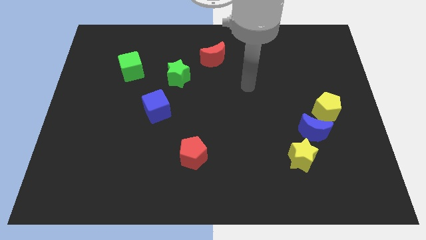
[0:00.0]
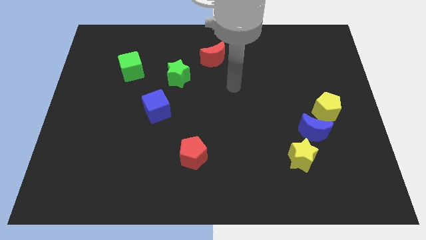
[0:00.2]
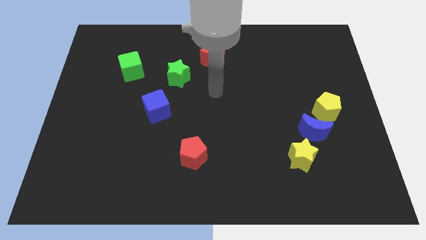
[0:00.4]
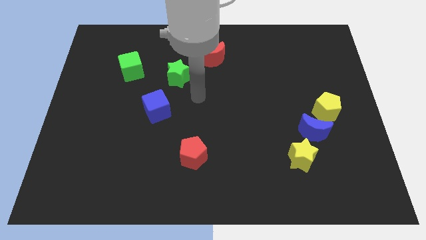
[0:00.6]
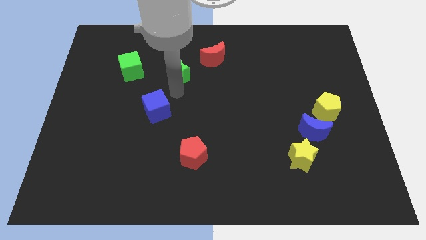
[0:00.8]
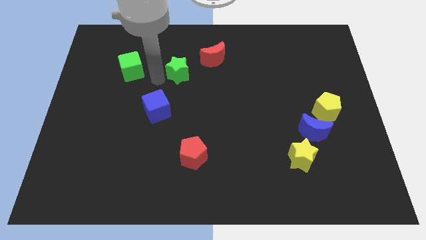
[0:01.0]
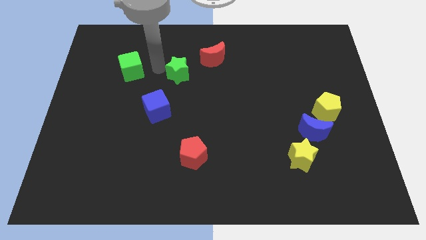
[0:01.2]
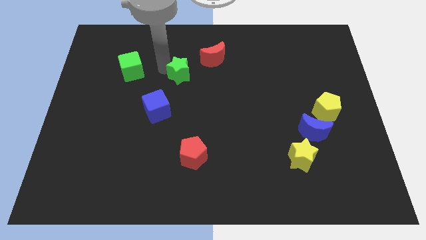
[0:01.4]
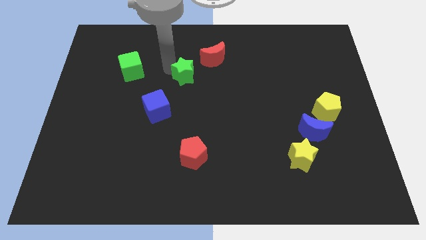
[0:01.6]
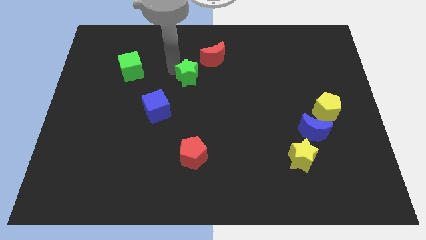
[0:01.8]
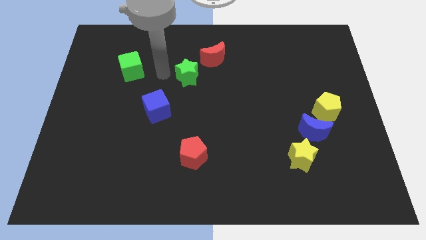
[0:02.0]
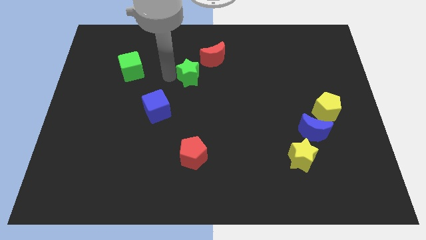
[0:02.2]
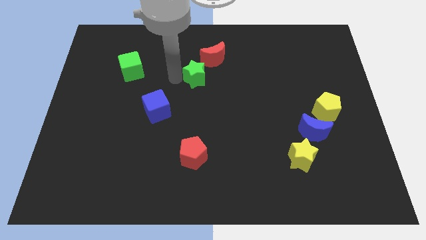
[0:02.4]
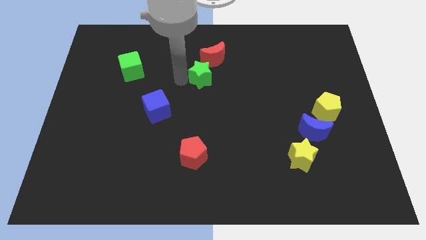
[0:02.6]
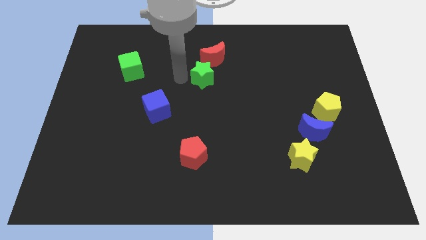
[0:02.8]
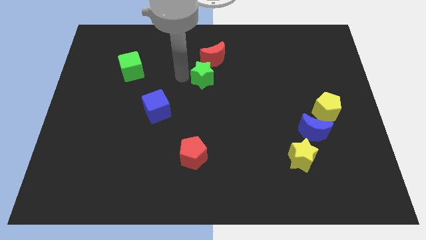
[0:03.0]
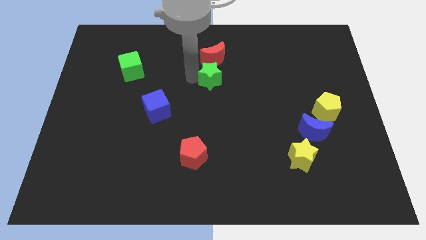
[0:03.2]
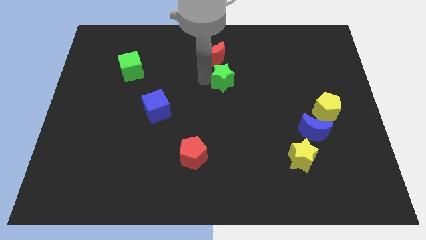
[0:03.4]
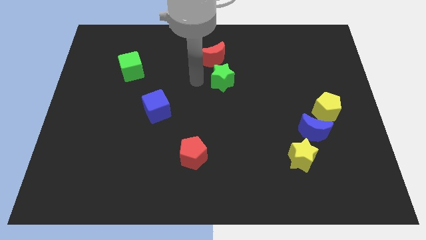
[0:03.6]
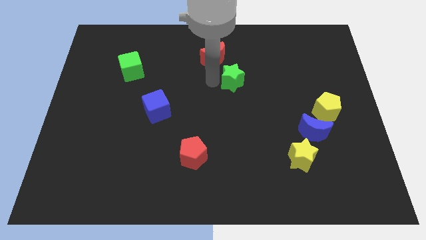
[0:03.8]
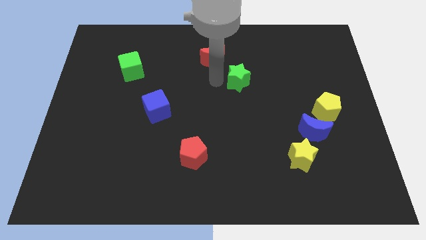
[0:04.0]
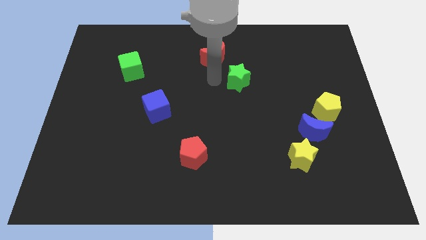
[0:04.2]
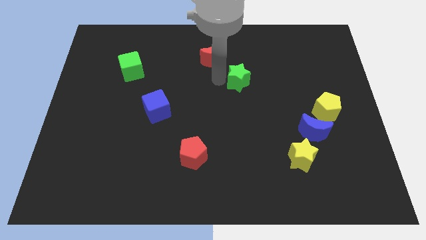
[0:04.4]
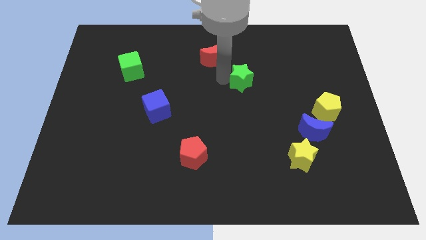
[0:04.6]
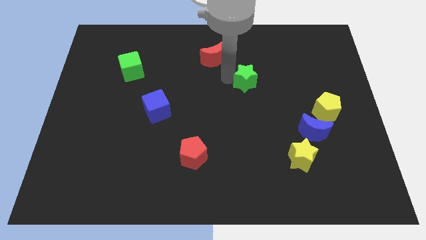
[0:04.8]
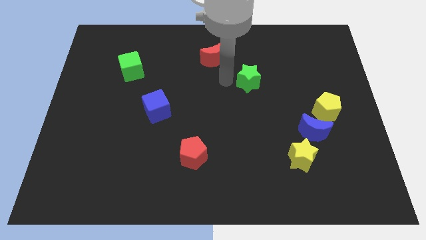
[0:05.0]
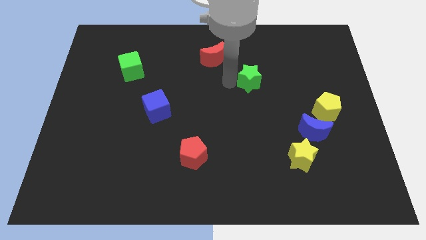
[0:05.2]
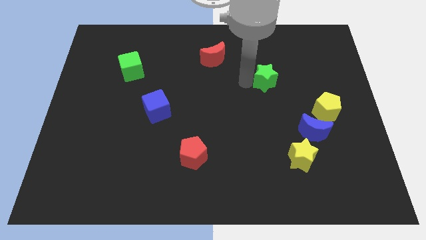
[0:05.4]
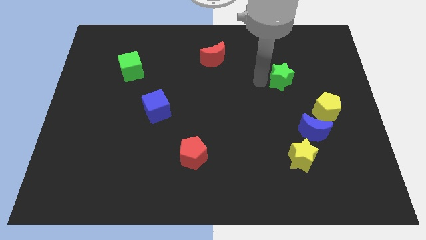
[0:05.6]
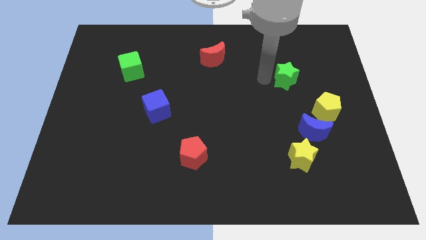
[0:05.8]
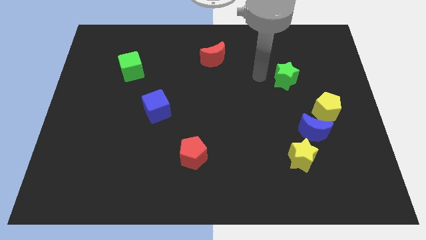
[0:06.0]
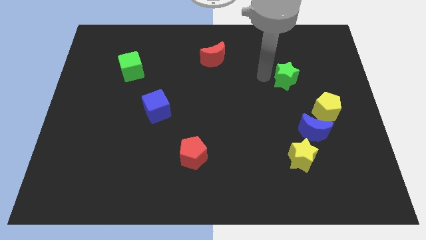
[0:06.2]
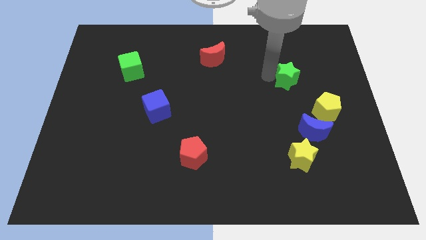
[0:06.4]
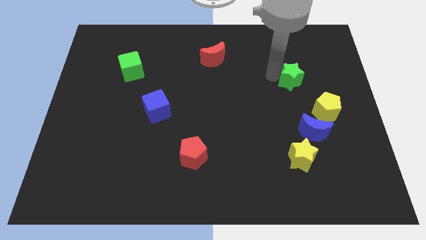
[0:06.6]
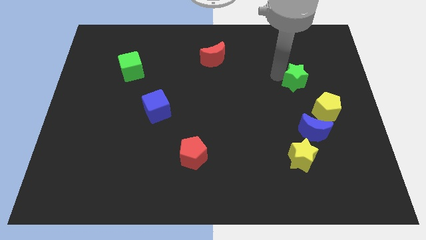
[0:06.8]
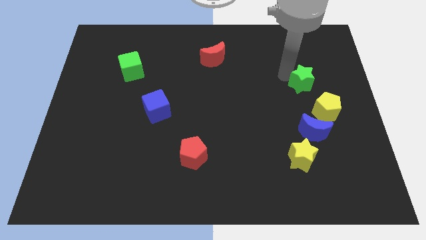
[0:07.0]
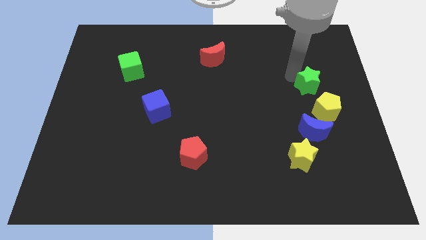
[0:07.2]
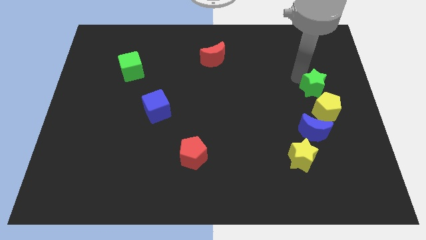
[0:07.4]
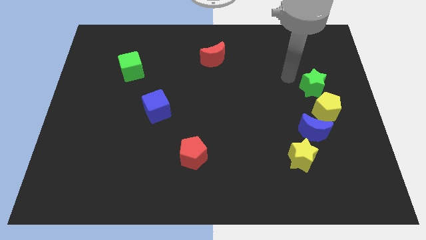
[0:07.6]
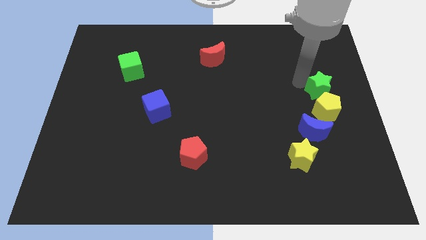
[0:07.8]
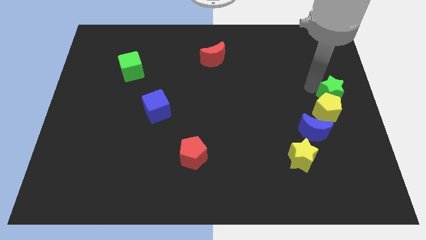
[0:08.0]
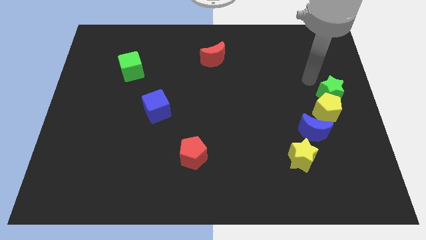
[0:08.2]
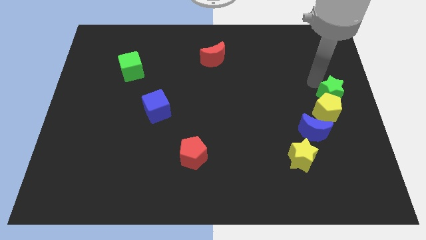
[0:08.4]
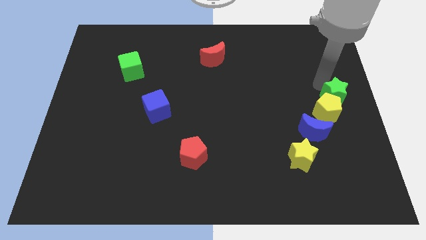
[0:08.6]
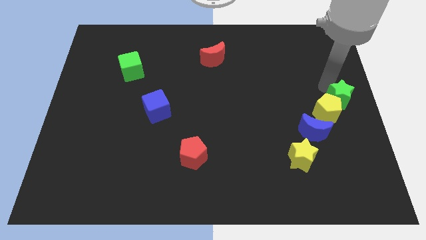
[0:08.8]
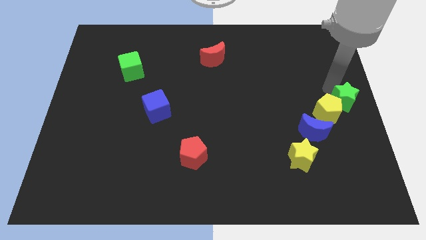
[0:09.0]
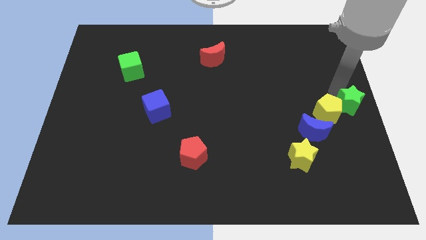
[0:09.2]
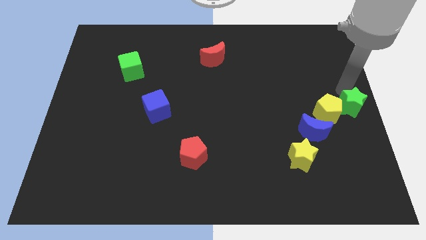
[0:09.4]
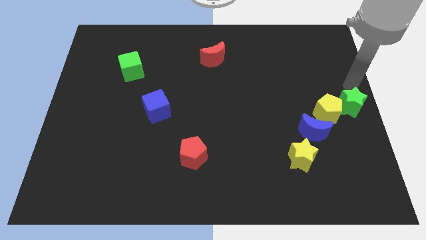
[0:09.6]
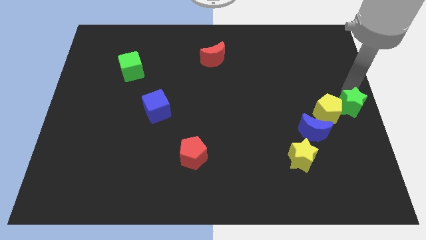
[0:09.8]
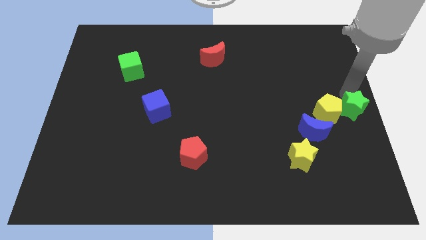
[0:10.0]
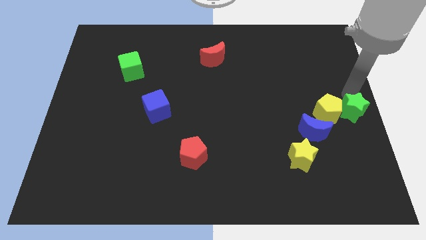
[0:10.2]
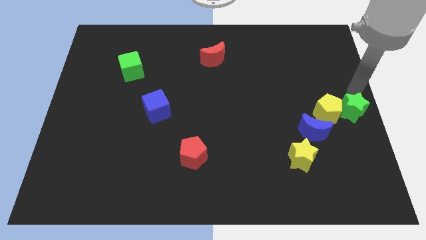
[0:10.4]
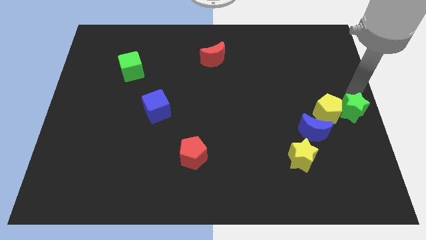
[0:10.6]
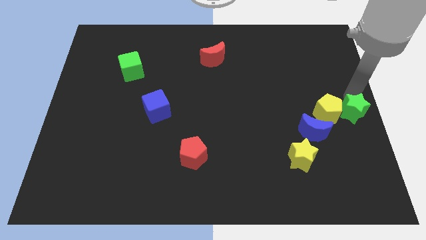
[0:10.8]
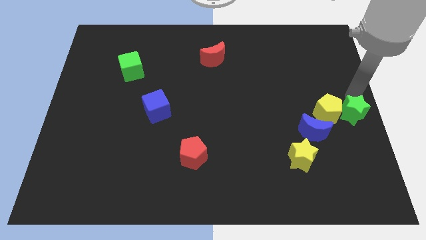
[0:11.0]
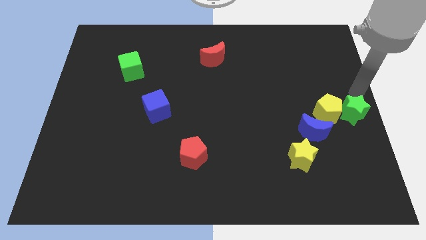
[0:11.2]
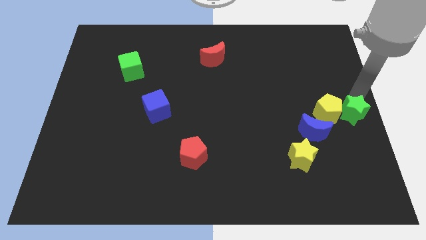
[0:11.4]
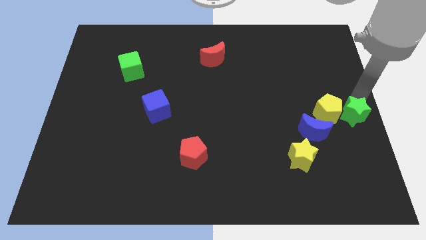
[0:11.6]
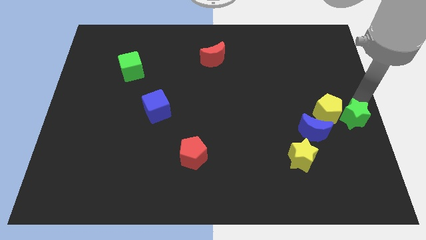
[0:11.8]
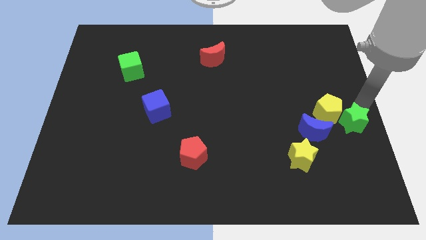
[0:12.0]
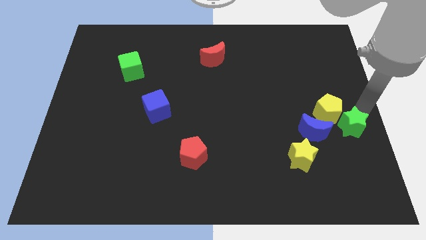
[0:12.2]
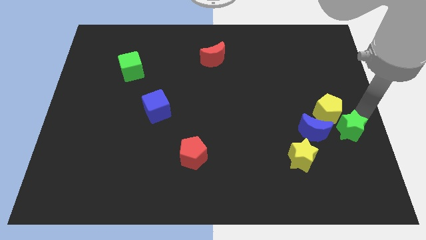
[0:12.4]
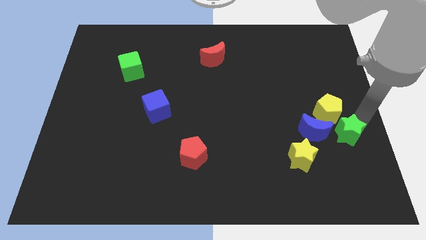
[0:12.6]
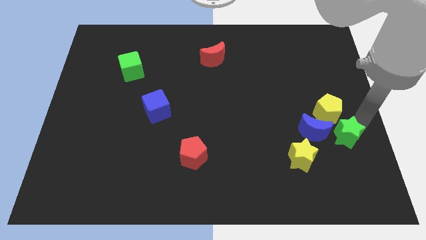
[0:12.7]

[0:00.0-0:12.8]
put the green star to the top right of the yellow star
